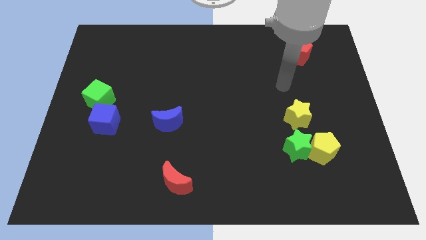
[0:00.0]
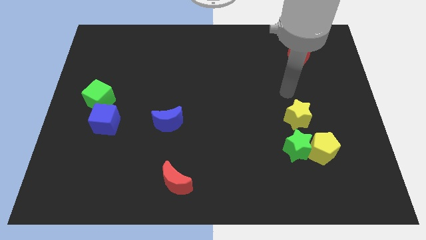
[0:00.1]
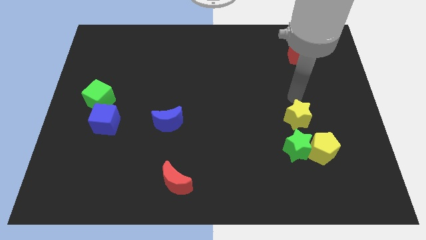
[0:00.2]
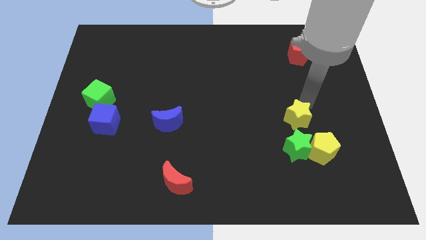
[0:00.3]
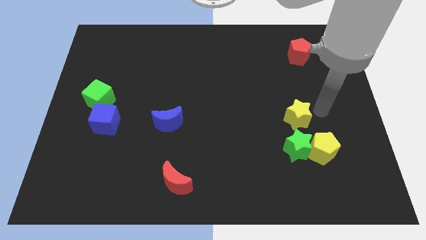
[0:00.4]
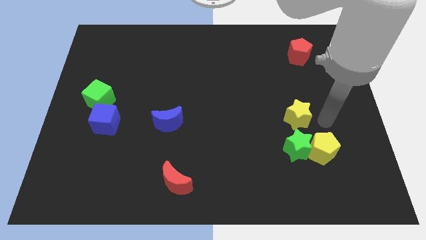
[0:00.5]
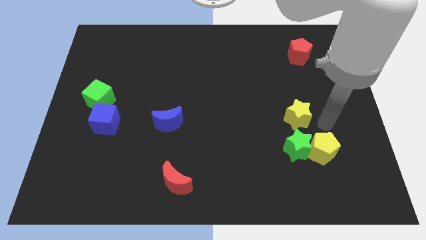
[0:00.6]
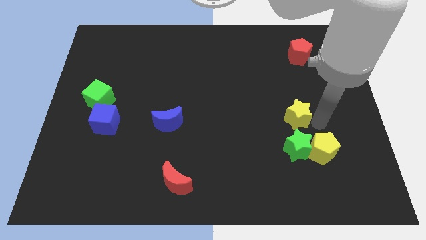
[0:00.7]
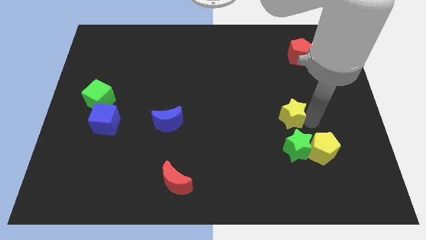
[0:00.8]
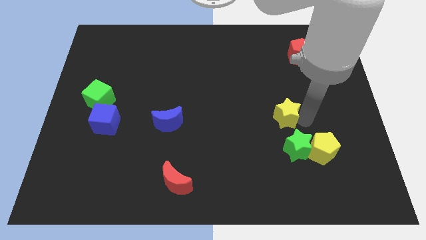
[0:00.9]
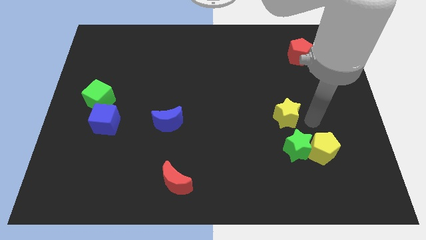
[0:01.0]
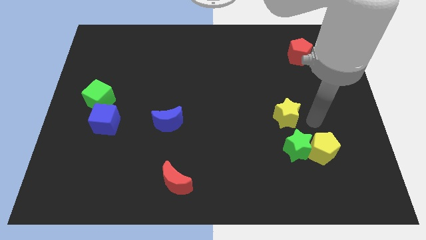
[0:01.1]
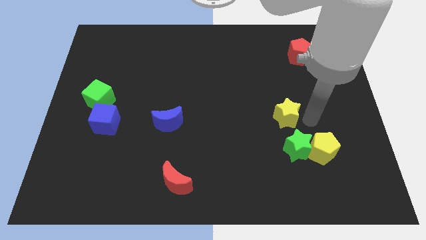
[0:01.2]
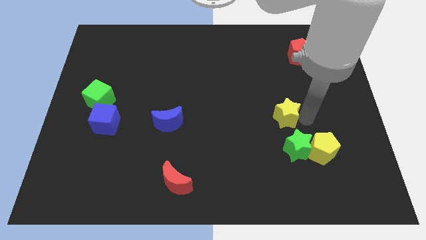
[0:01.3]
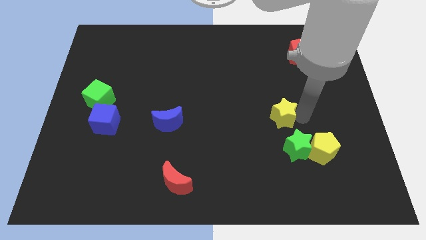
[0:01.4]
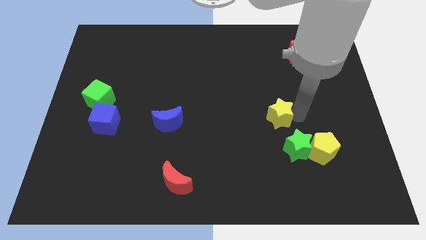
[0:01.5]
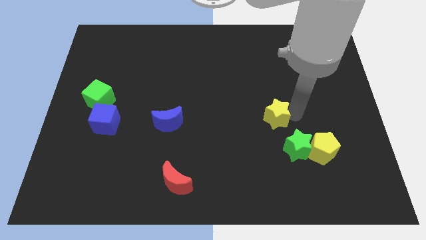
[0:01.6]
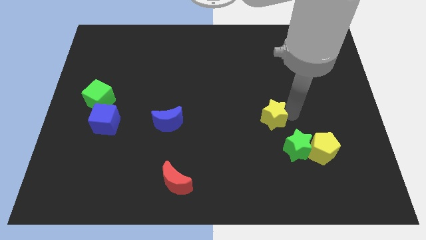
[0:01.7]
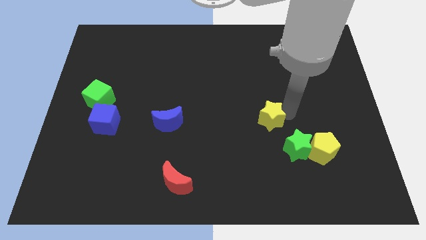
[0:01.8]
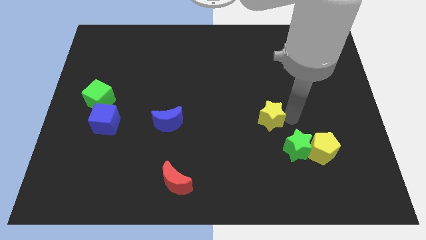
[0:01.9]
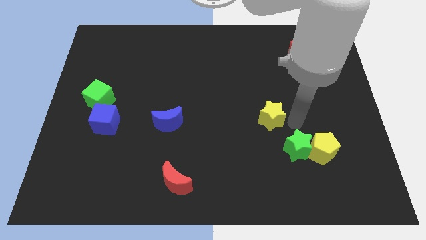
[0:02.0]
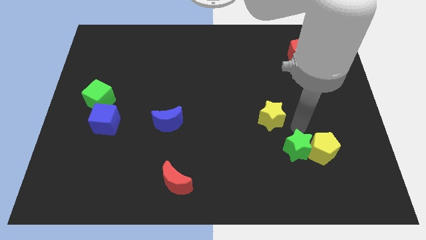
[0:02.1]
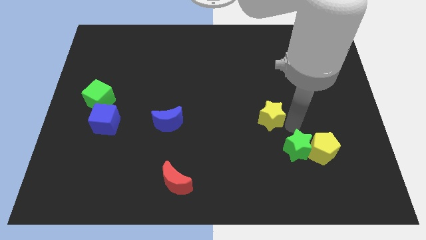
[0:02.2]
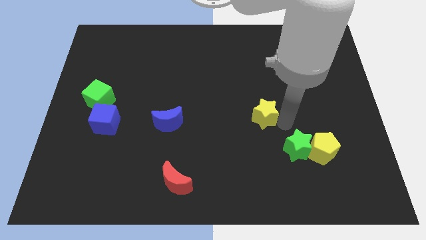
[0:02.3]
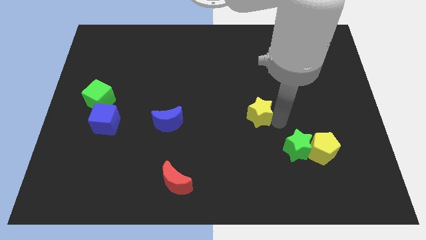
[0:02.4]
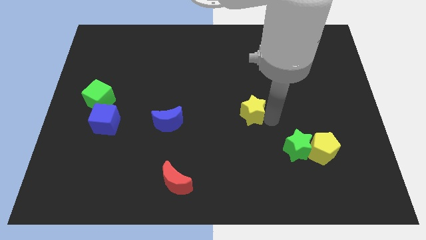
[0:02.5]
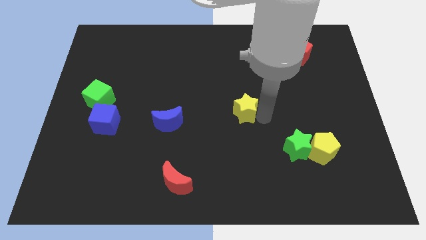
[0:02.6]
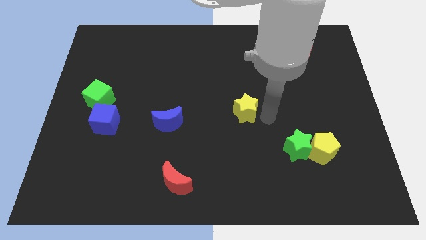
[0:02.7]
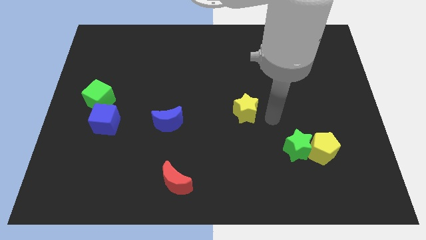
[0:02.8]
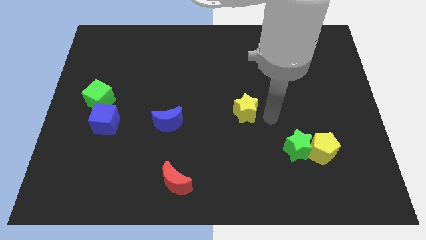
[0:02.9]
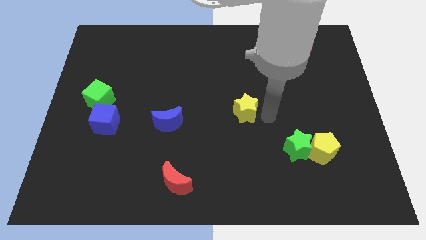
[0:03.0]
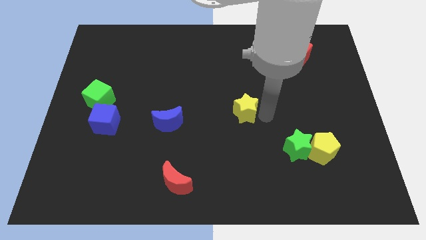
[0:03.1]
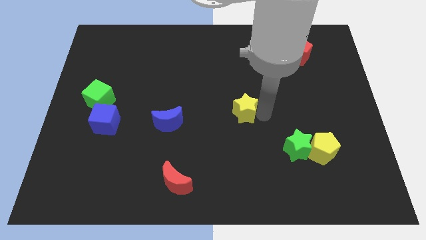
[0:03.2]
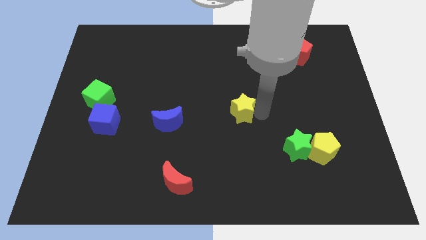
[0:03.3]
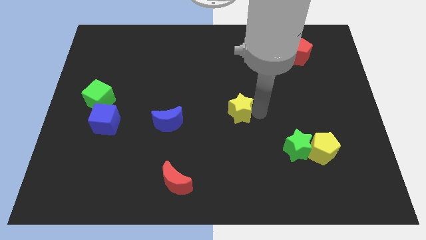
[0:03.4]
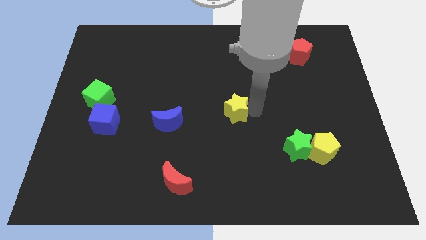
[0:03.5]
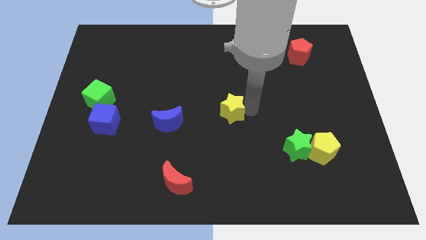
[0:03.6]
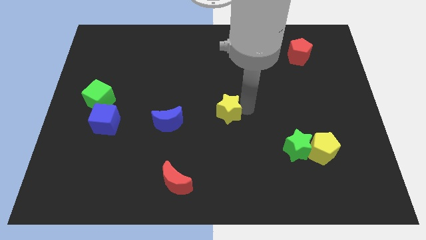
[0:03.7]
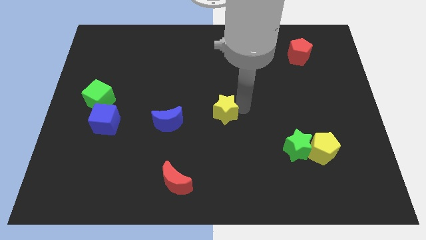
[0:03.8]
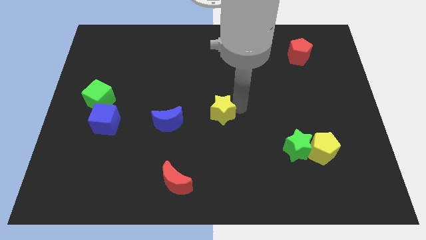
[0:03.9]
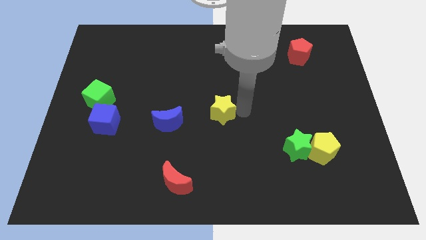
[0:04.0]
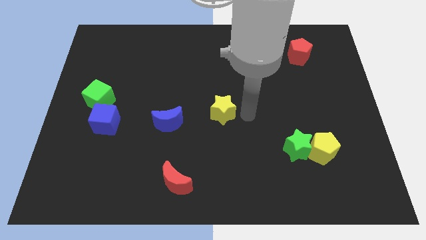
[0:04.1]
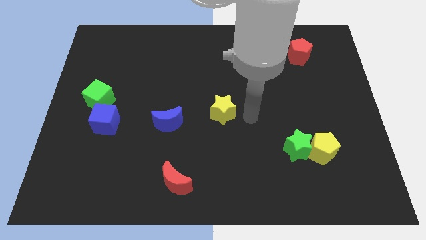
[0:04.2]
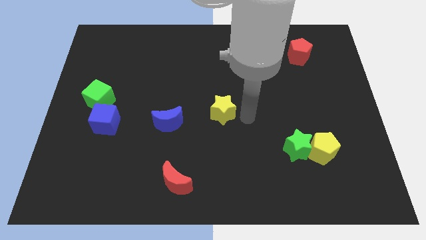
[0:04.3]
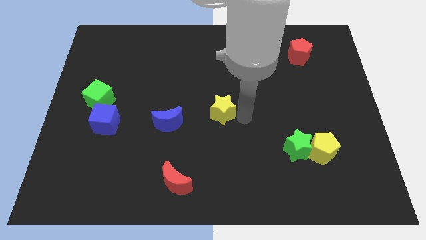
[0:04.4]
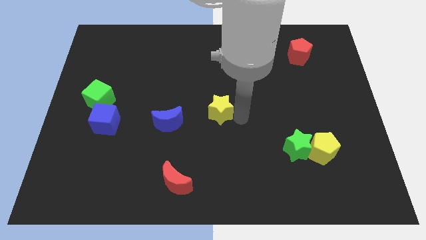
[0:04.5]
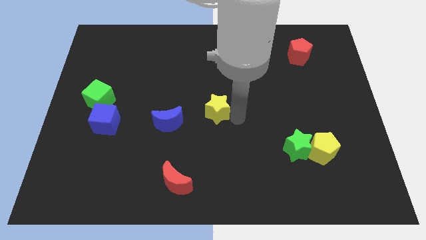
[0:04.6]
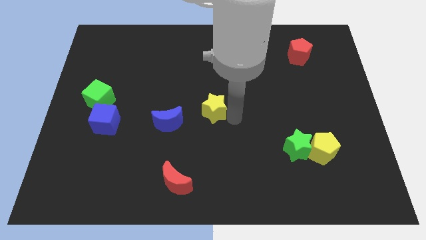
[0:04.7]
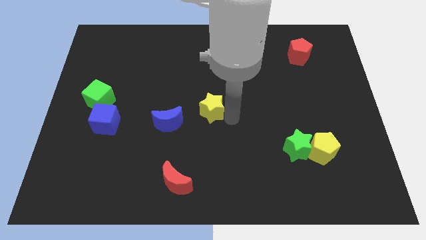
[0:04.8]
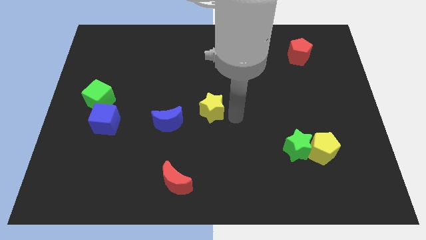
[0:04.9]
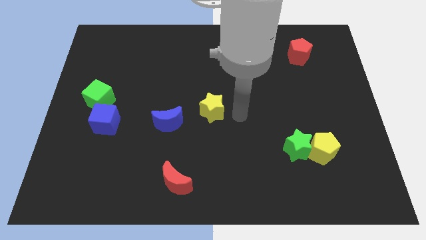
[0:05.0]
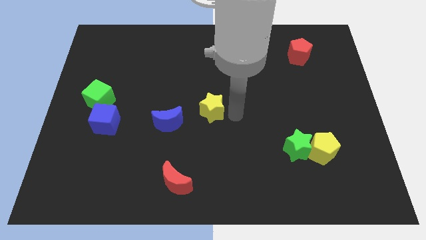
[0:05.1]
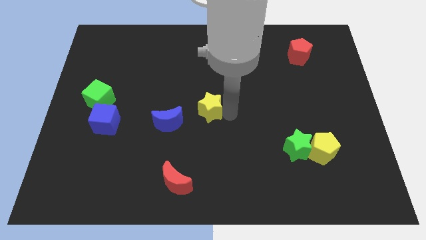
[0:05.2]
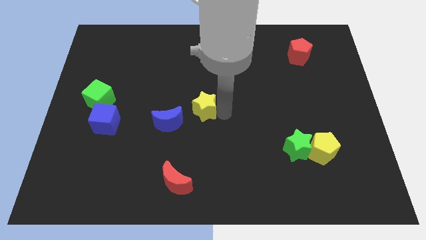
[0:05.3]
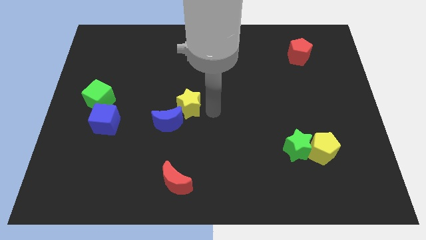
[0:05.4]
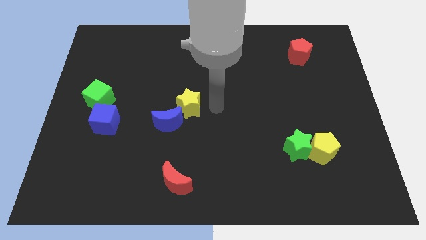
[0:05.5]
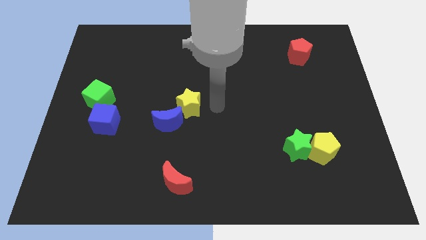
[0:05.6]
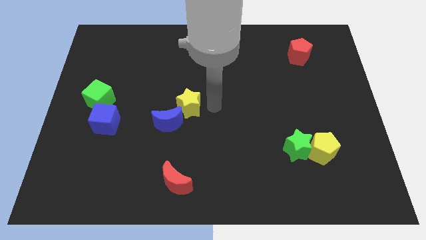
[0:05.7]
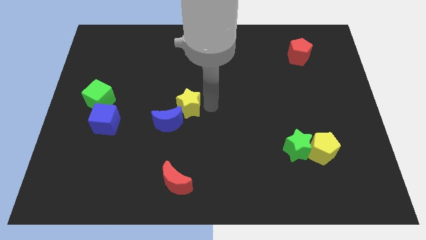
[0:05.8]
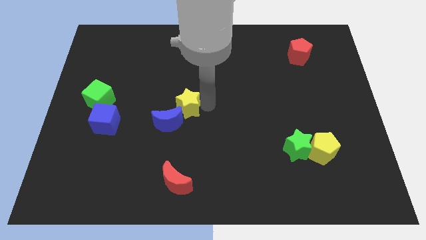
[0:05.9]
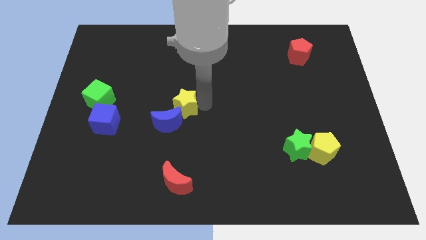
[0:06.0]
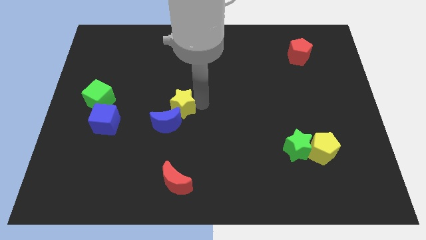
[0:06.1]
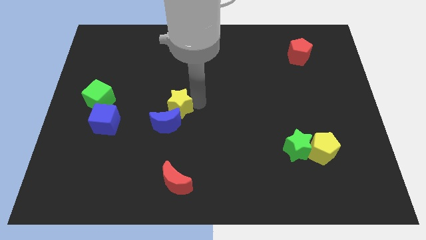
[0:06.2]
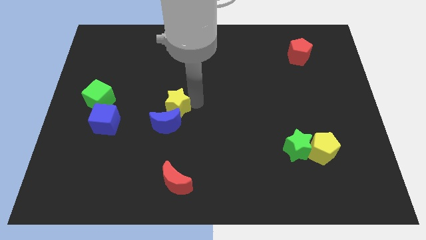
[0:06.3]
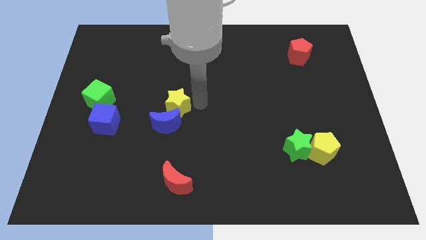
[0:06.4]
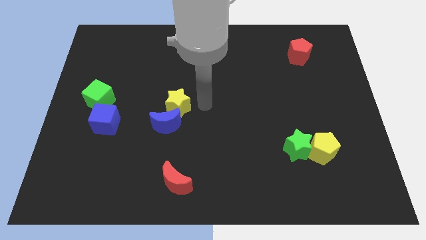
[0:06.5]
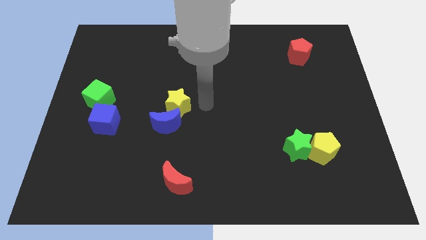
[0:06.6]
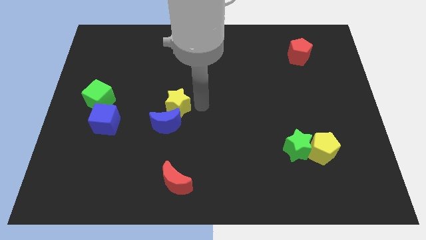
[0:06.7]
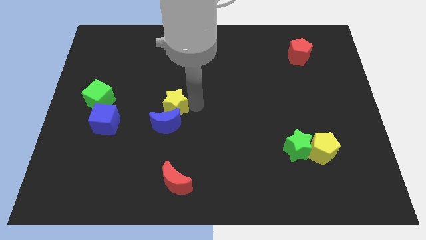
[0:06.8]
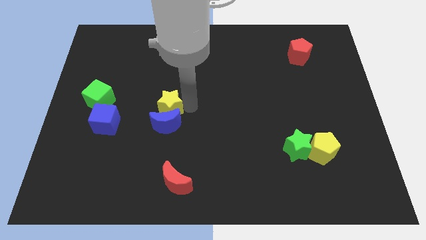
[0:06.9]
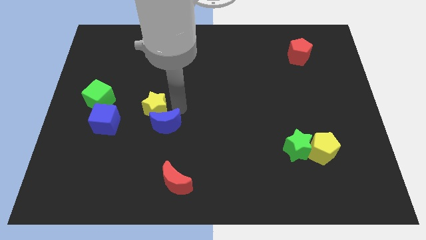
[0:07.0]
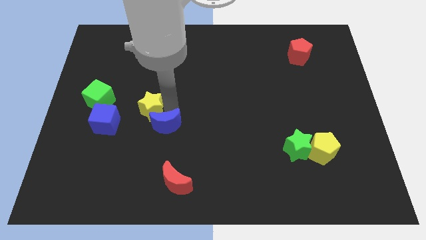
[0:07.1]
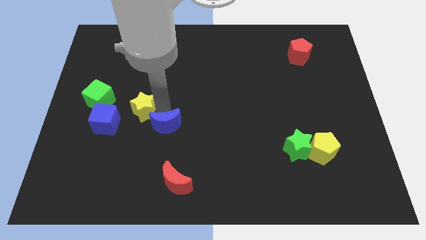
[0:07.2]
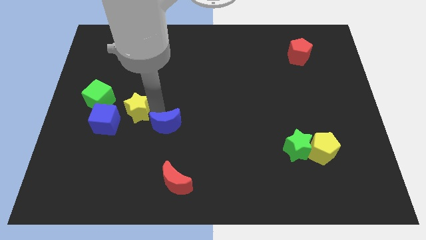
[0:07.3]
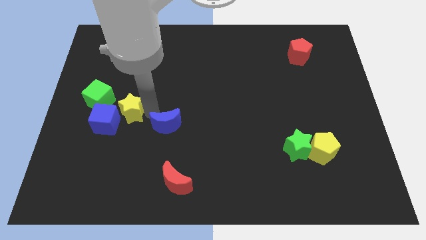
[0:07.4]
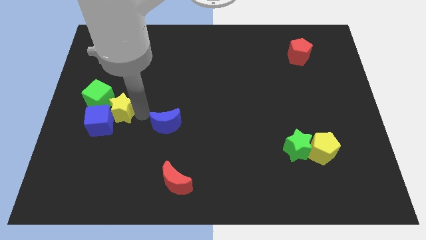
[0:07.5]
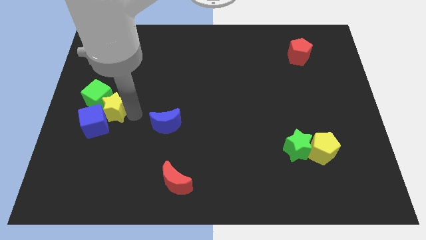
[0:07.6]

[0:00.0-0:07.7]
push the yellow star next to the green cube
